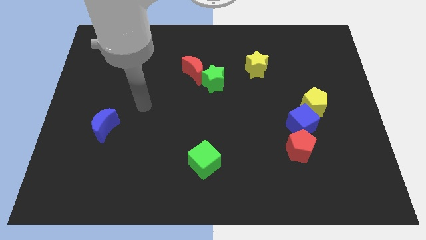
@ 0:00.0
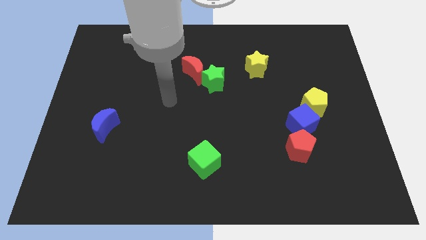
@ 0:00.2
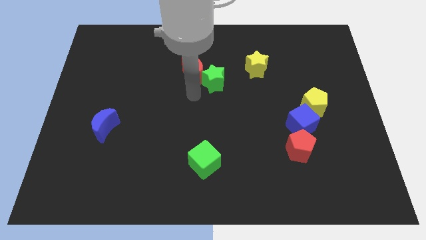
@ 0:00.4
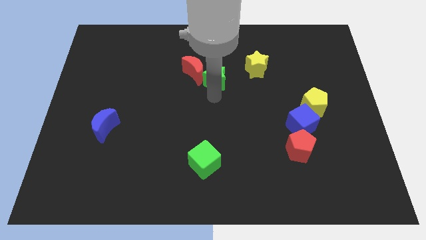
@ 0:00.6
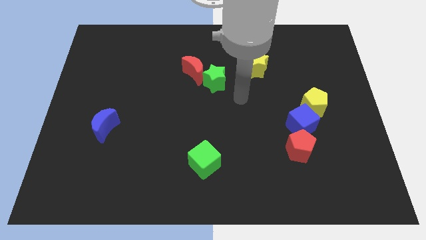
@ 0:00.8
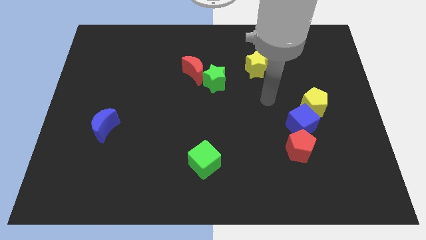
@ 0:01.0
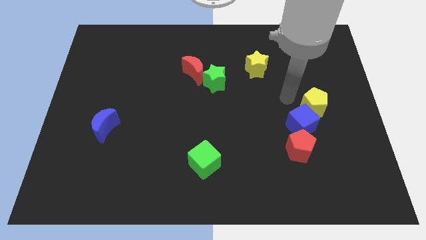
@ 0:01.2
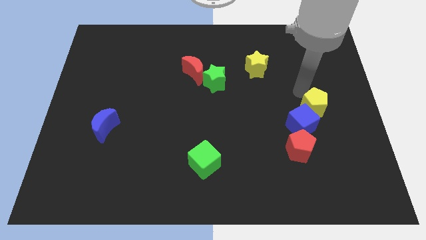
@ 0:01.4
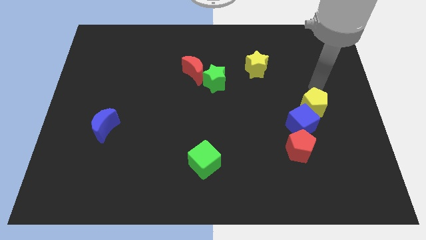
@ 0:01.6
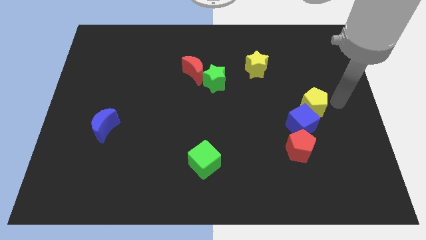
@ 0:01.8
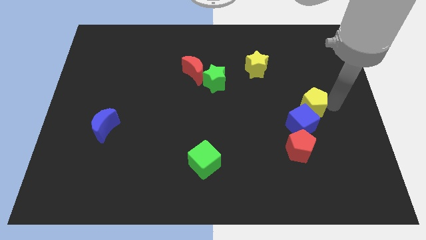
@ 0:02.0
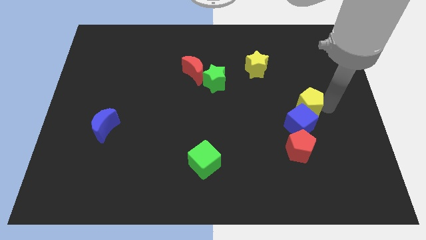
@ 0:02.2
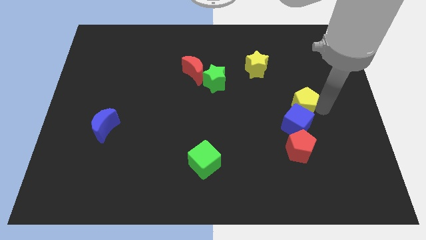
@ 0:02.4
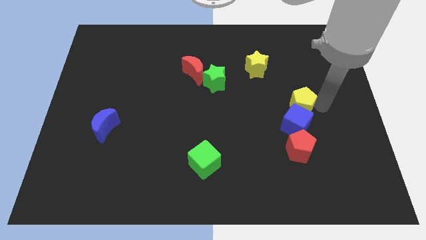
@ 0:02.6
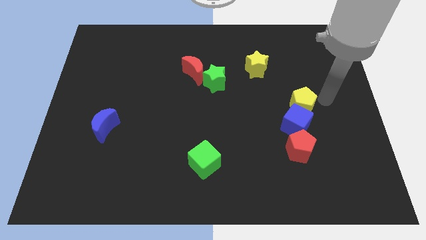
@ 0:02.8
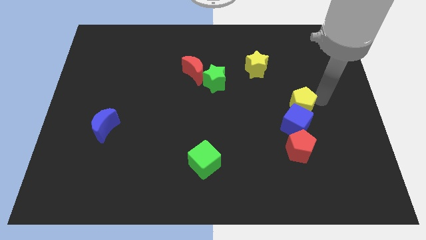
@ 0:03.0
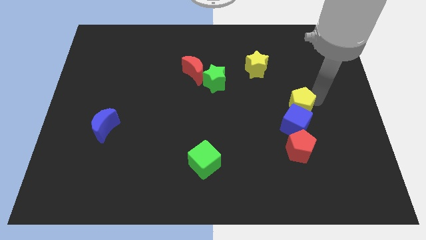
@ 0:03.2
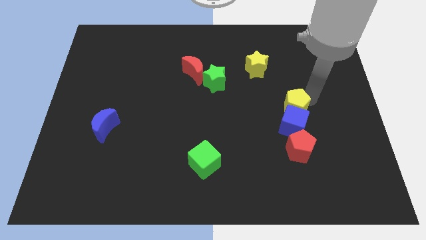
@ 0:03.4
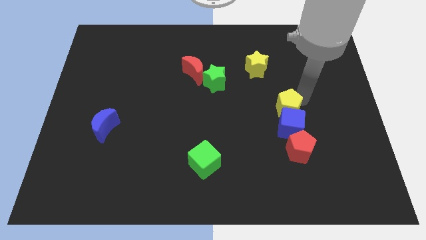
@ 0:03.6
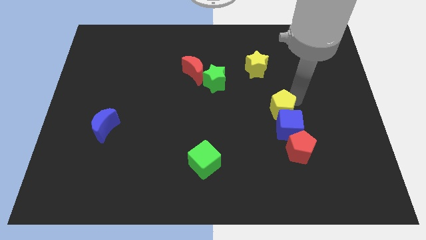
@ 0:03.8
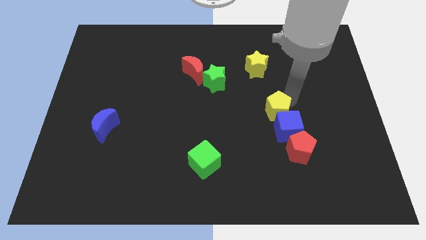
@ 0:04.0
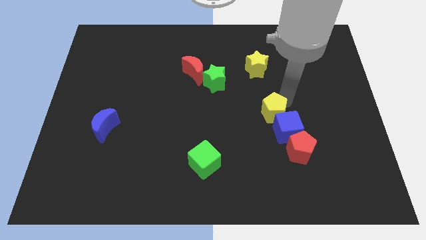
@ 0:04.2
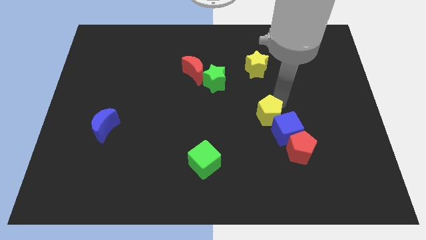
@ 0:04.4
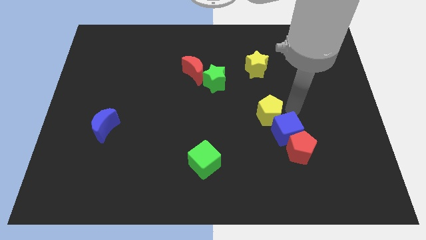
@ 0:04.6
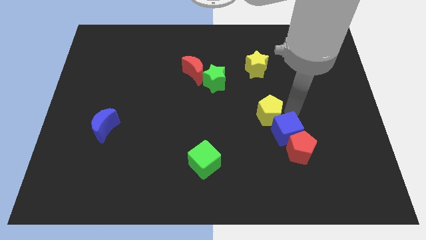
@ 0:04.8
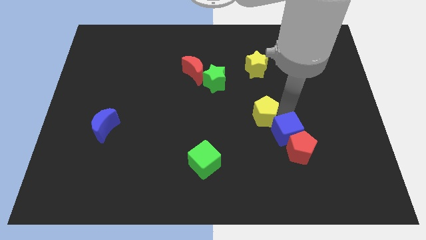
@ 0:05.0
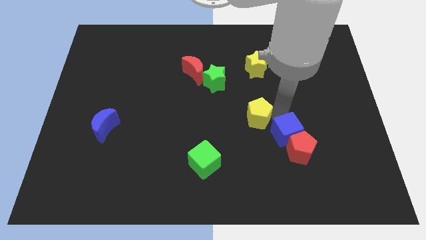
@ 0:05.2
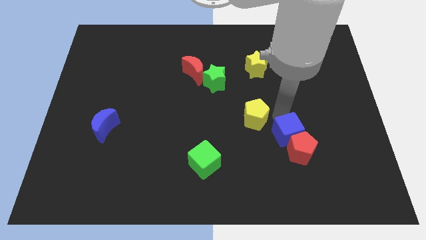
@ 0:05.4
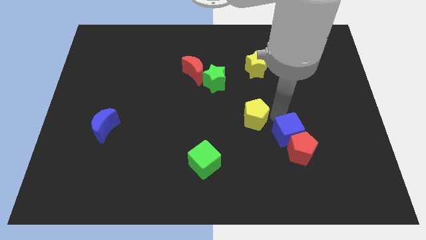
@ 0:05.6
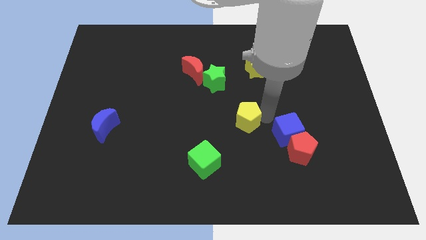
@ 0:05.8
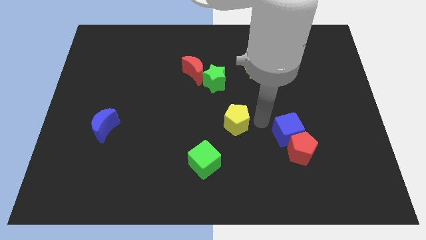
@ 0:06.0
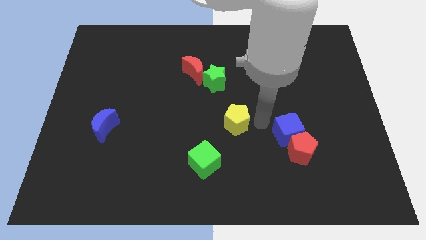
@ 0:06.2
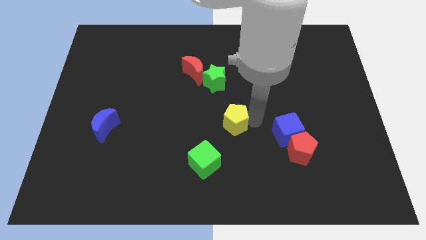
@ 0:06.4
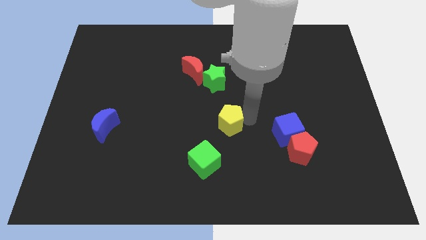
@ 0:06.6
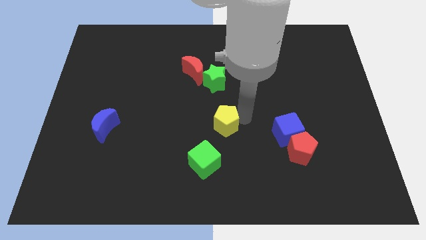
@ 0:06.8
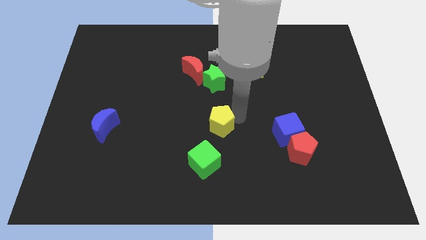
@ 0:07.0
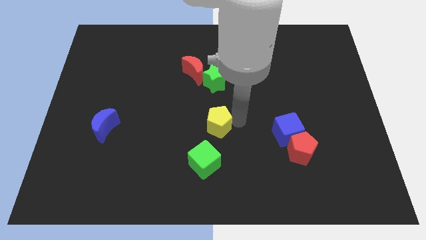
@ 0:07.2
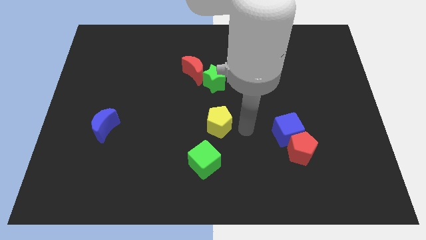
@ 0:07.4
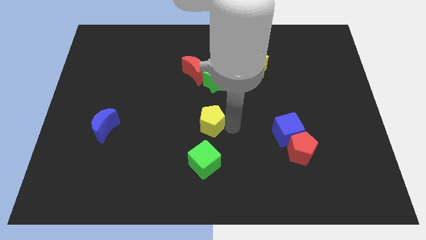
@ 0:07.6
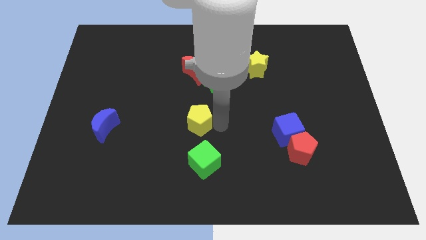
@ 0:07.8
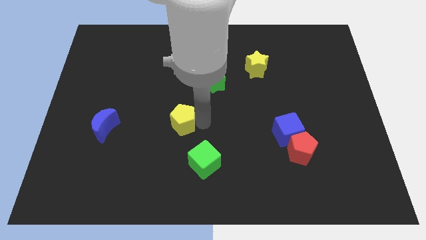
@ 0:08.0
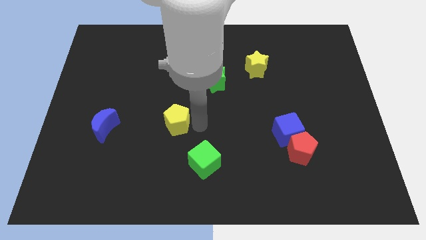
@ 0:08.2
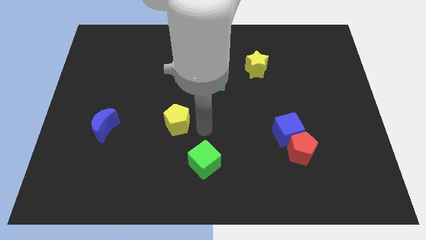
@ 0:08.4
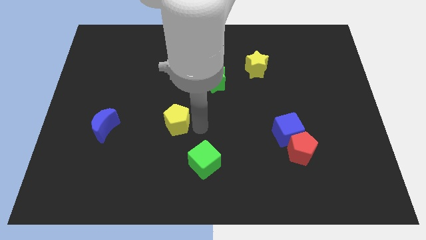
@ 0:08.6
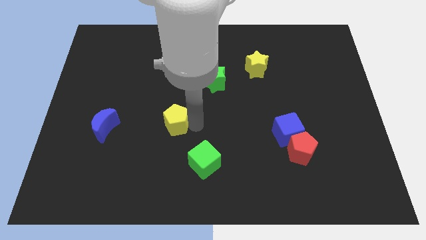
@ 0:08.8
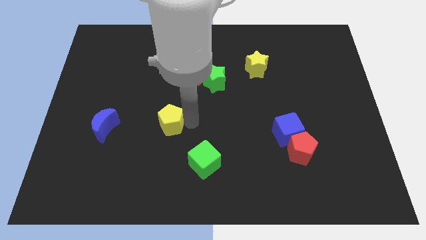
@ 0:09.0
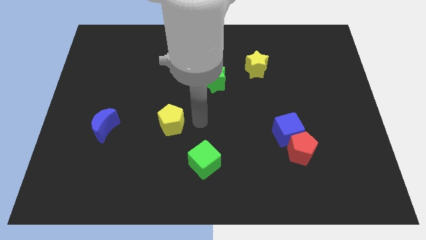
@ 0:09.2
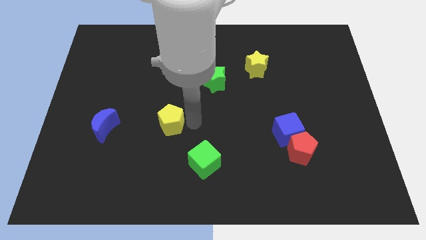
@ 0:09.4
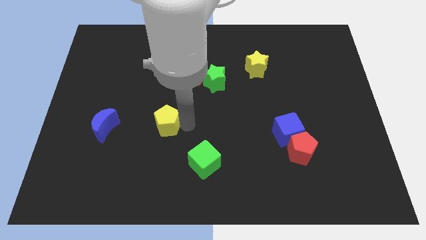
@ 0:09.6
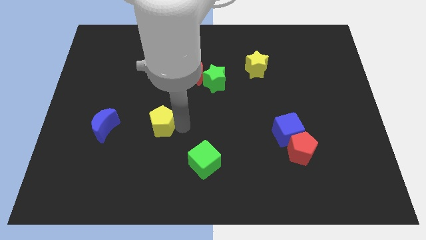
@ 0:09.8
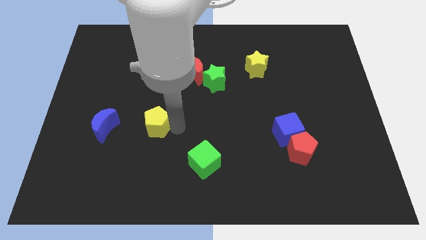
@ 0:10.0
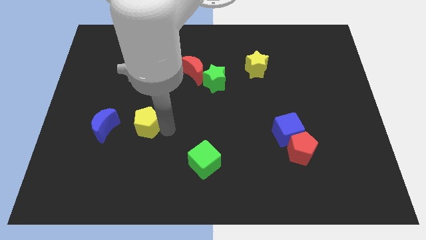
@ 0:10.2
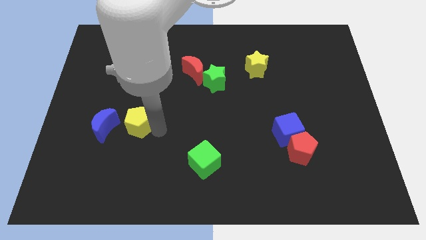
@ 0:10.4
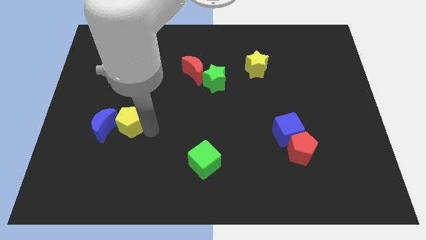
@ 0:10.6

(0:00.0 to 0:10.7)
move the yellow pentagon next to the blue moon

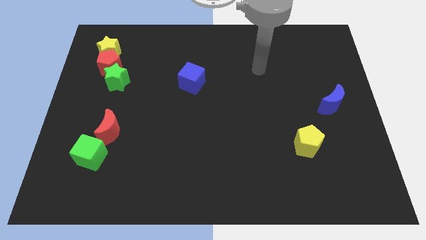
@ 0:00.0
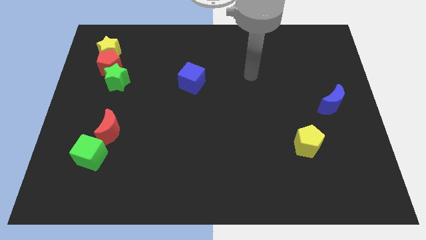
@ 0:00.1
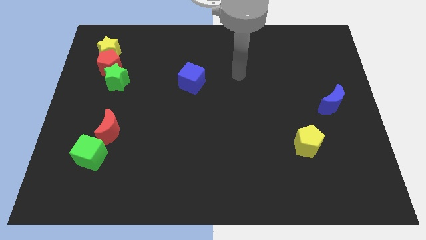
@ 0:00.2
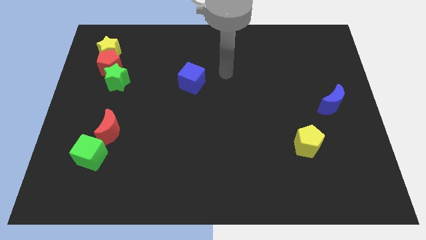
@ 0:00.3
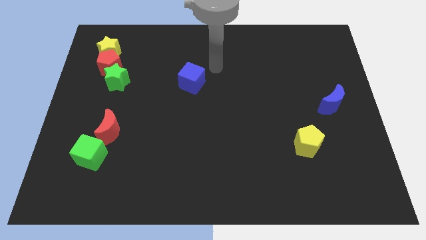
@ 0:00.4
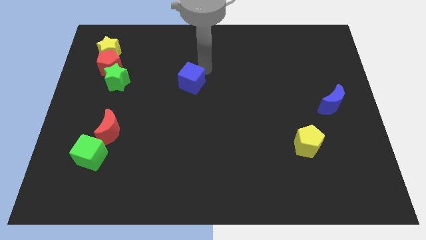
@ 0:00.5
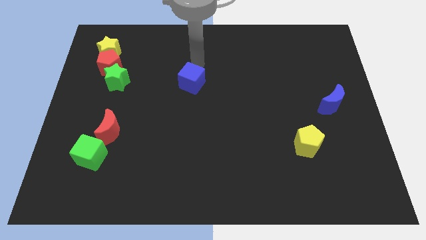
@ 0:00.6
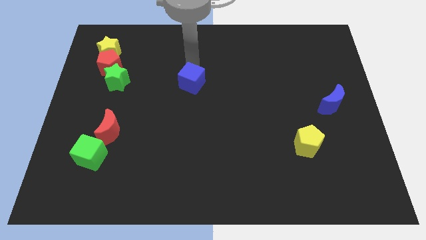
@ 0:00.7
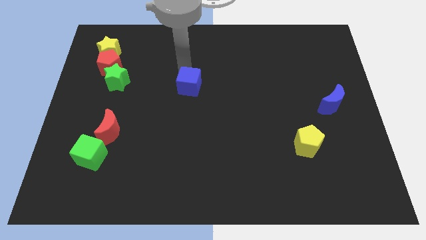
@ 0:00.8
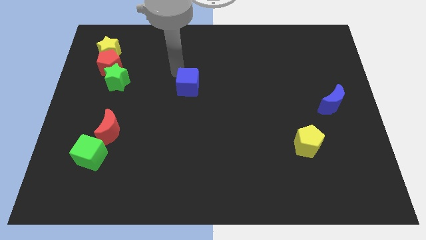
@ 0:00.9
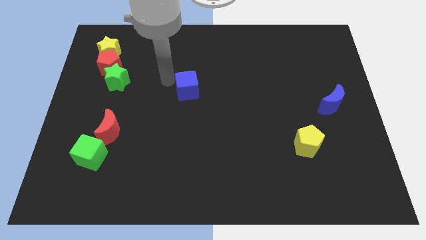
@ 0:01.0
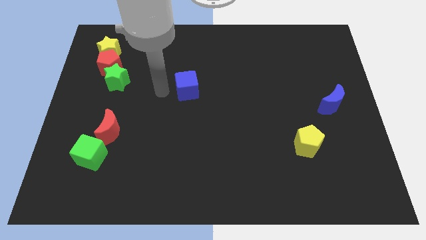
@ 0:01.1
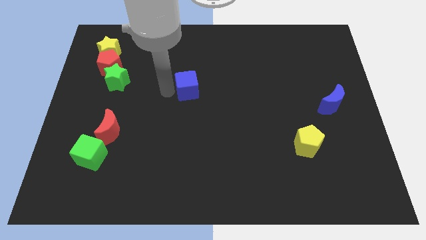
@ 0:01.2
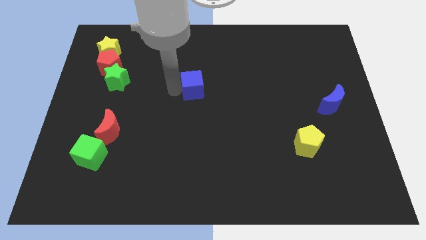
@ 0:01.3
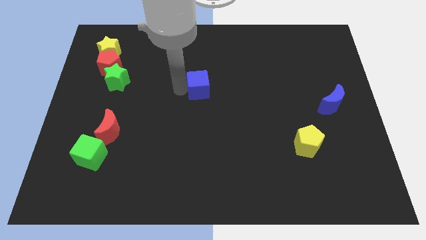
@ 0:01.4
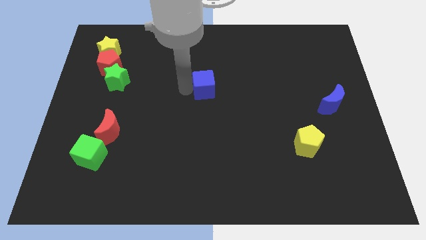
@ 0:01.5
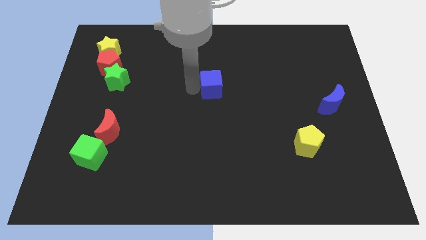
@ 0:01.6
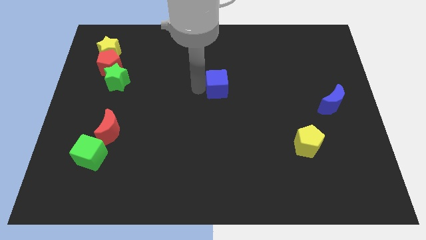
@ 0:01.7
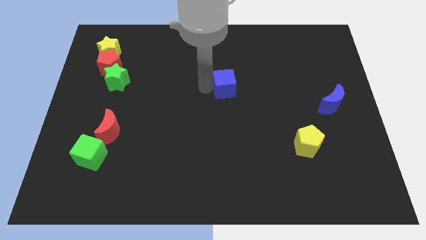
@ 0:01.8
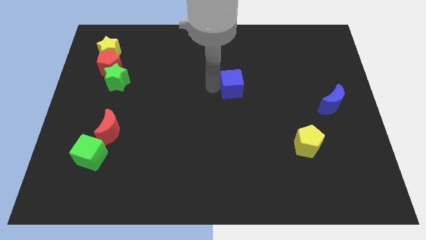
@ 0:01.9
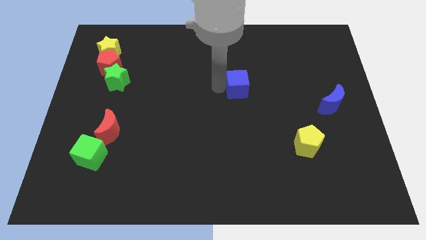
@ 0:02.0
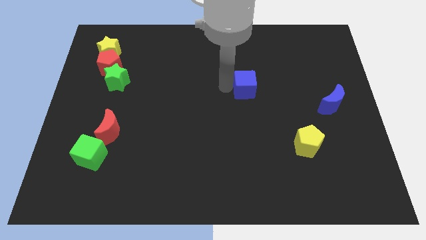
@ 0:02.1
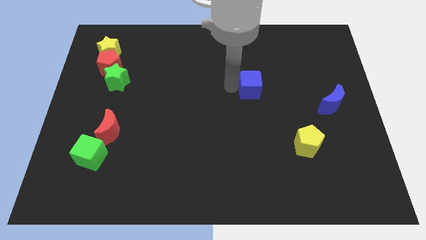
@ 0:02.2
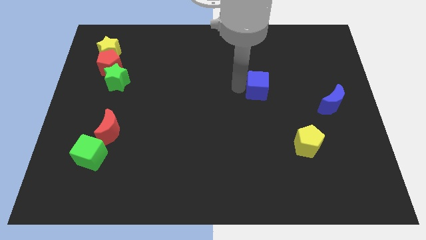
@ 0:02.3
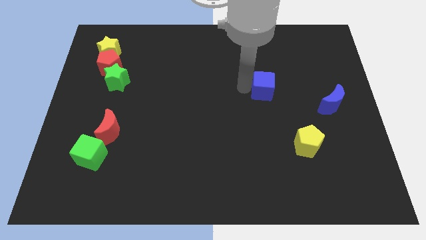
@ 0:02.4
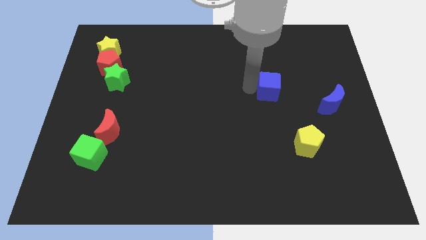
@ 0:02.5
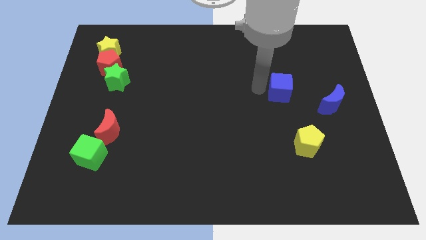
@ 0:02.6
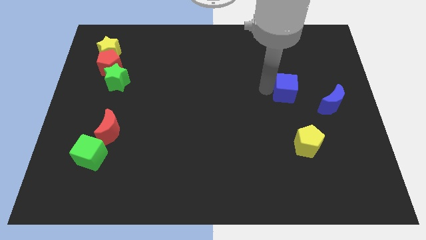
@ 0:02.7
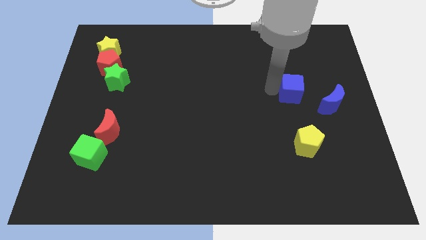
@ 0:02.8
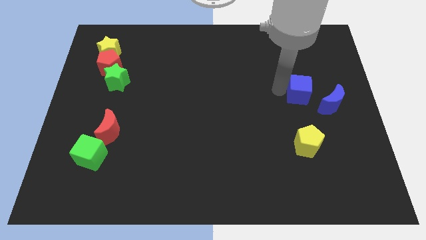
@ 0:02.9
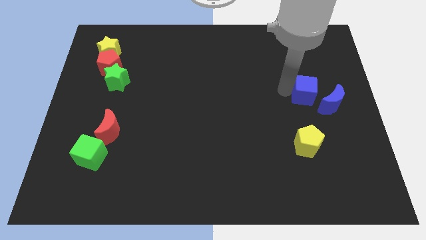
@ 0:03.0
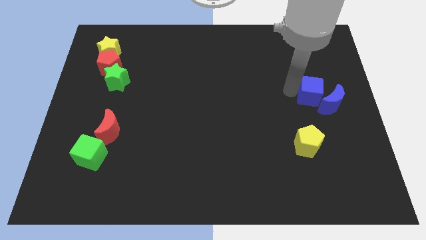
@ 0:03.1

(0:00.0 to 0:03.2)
slide the blue cube towards the blue moon
